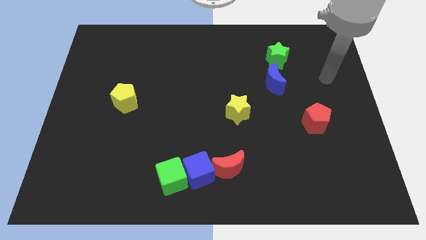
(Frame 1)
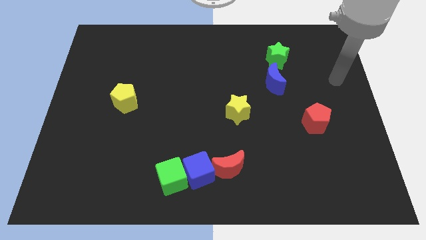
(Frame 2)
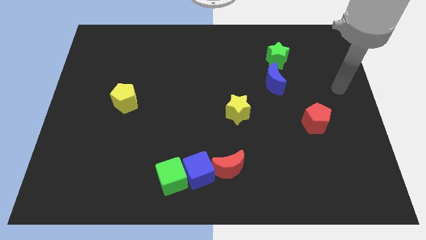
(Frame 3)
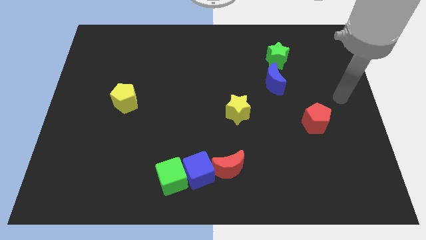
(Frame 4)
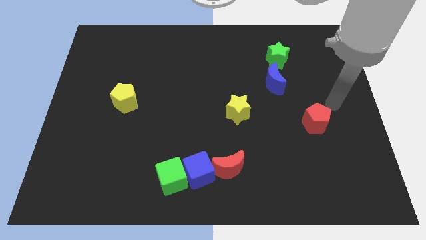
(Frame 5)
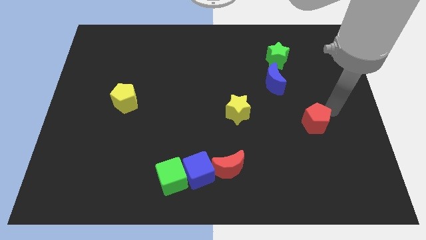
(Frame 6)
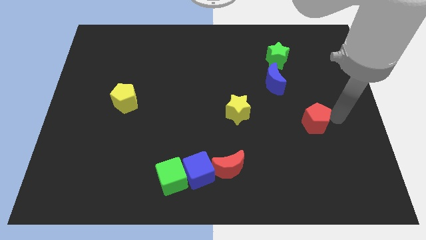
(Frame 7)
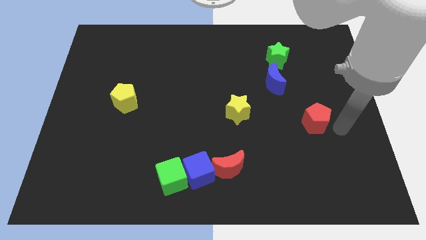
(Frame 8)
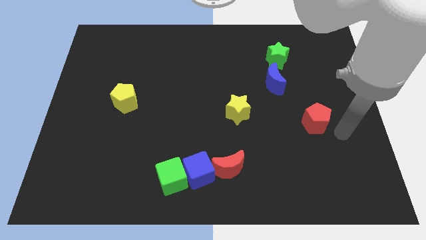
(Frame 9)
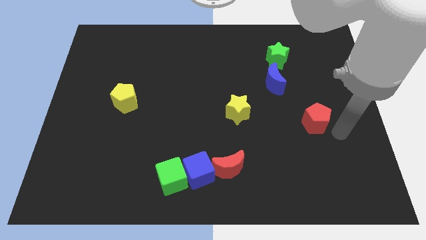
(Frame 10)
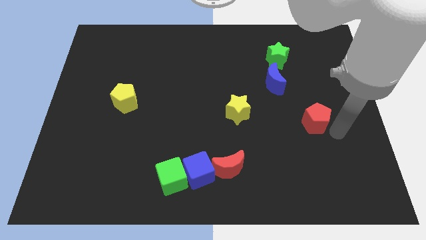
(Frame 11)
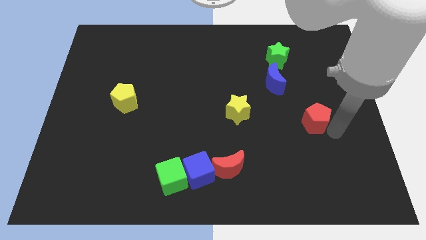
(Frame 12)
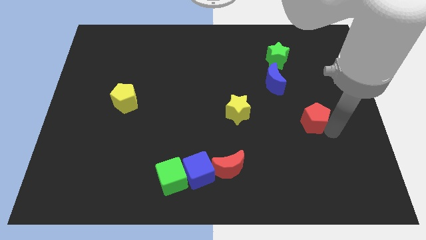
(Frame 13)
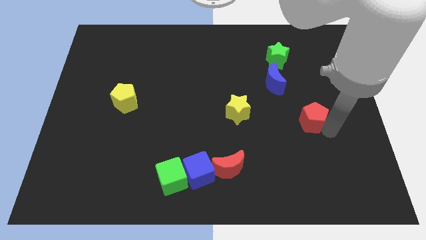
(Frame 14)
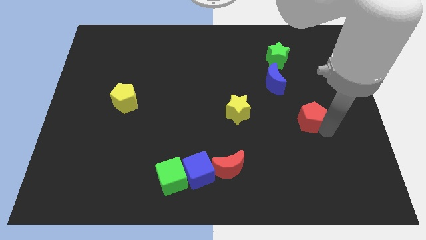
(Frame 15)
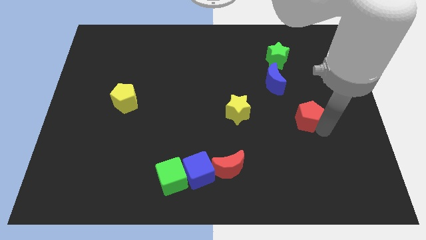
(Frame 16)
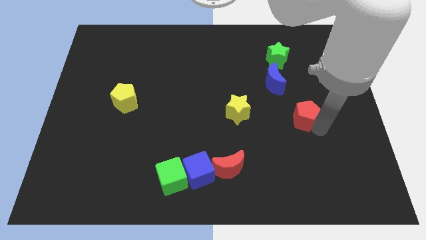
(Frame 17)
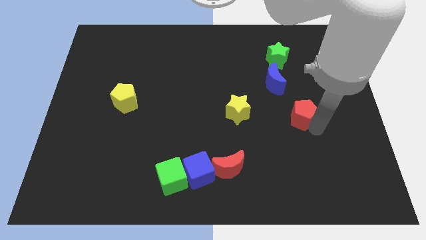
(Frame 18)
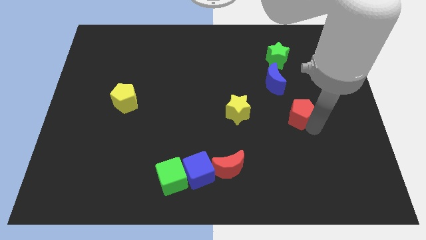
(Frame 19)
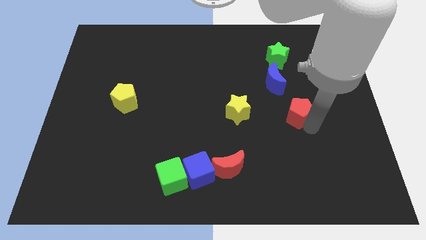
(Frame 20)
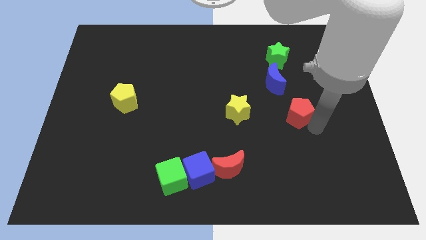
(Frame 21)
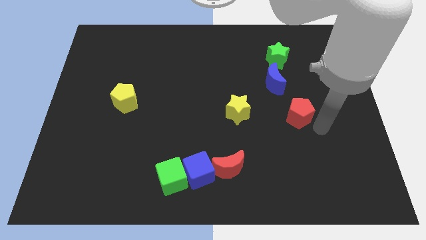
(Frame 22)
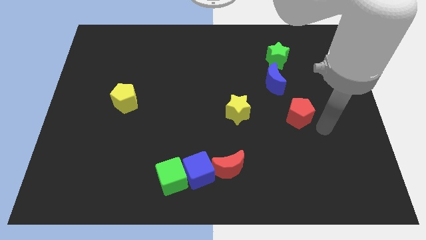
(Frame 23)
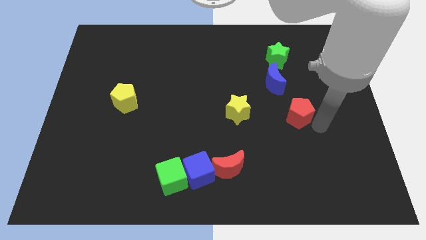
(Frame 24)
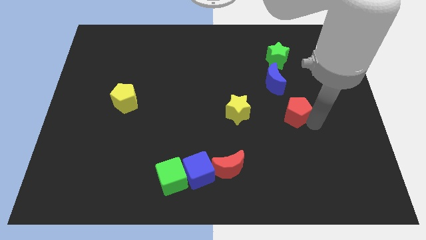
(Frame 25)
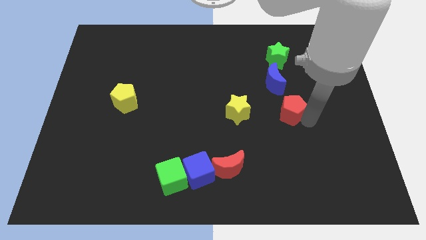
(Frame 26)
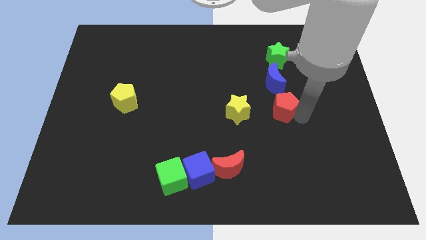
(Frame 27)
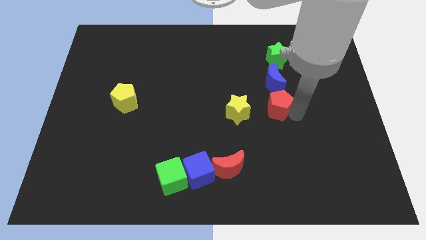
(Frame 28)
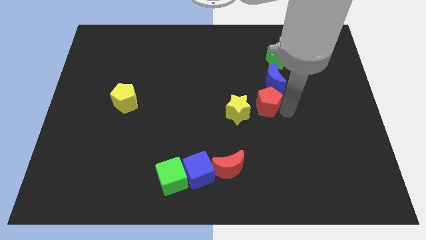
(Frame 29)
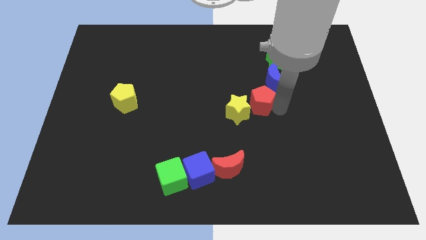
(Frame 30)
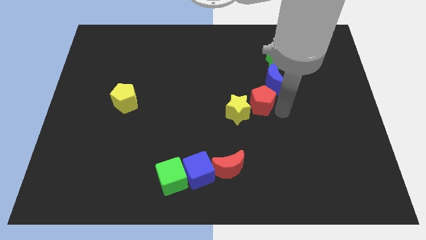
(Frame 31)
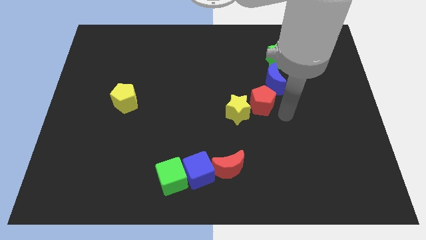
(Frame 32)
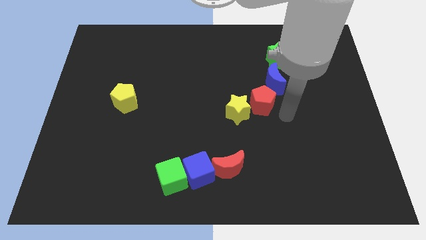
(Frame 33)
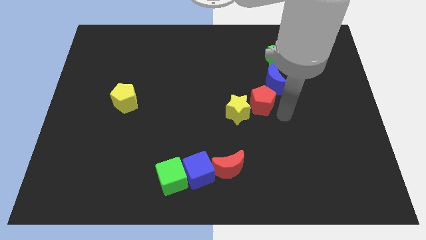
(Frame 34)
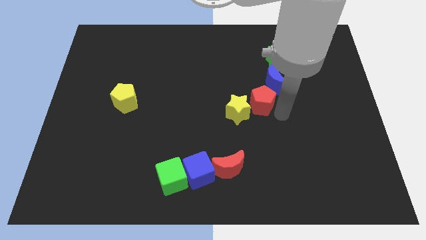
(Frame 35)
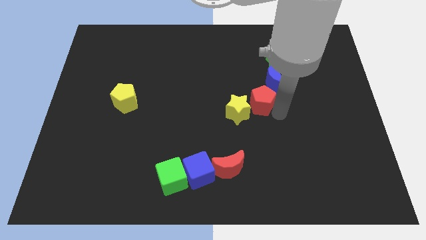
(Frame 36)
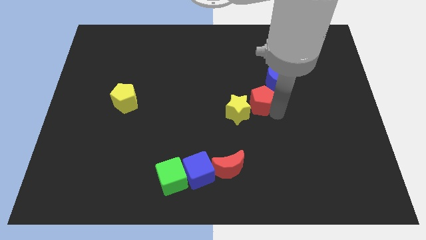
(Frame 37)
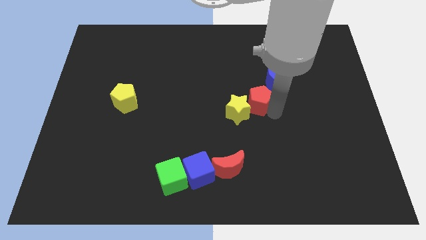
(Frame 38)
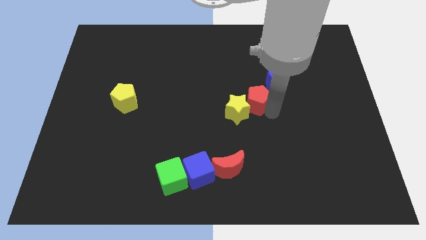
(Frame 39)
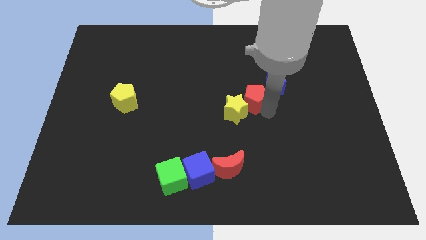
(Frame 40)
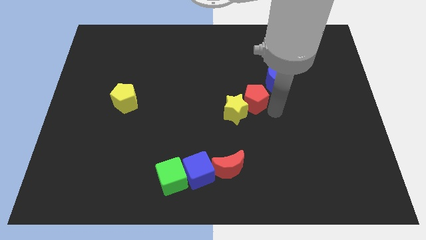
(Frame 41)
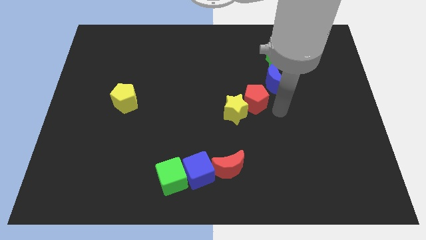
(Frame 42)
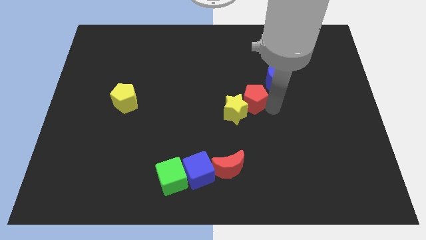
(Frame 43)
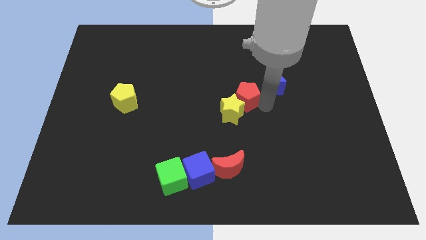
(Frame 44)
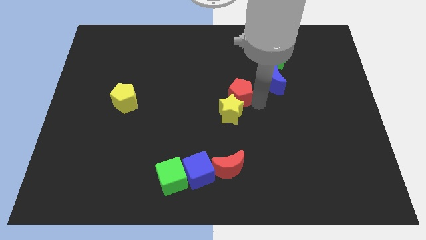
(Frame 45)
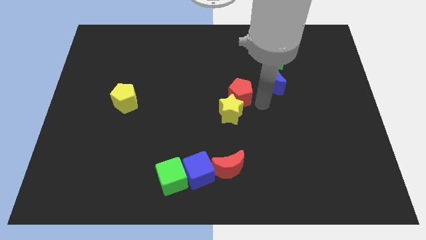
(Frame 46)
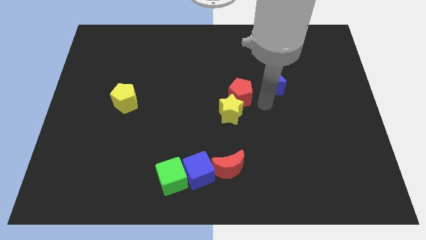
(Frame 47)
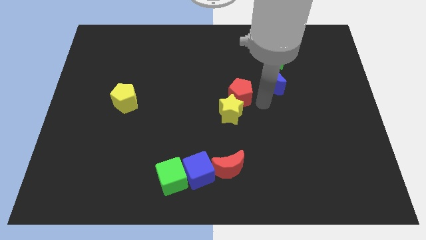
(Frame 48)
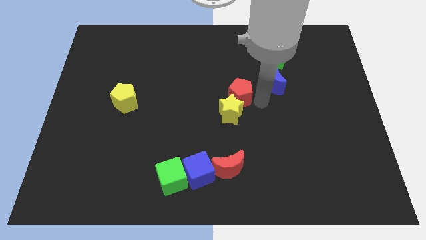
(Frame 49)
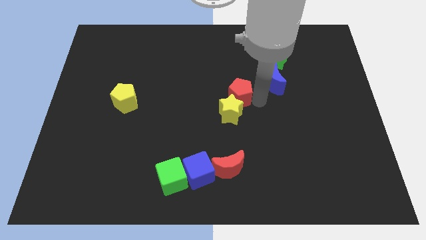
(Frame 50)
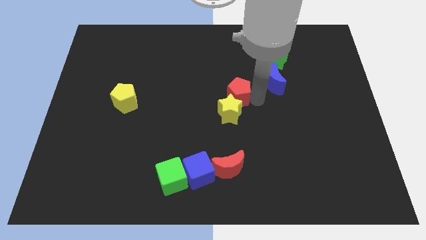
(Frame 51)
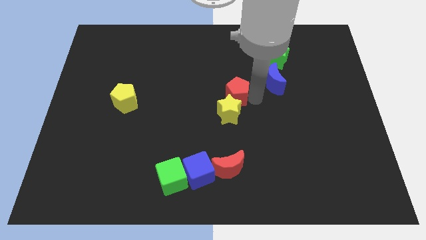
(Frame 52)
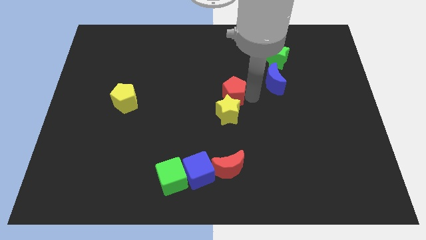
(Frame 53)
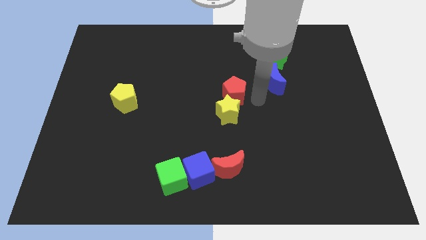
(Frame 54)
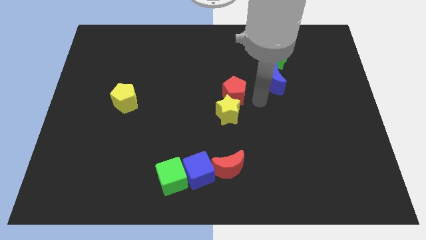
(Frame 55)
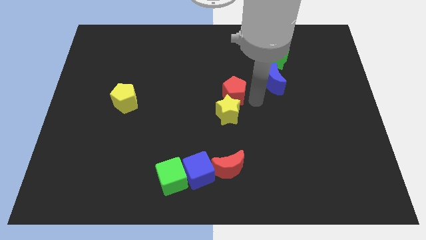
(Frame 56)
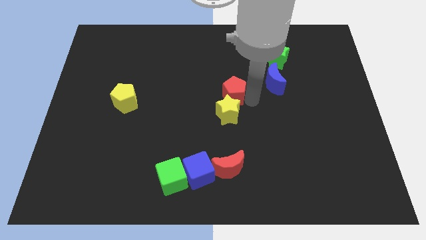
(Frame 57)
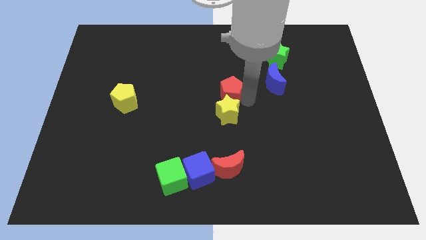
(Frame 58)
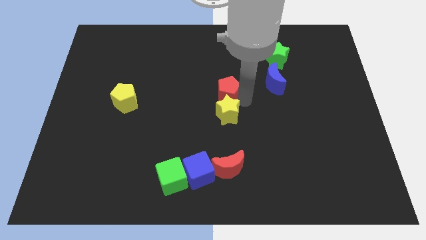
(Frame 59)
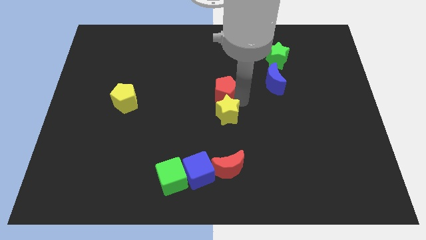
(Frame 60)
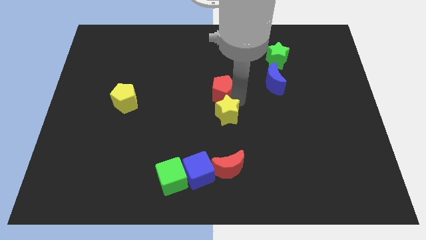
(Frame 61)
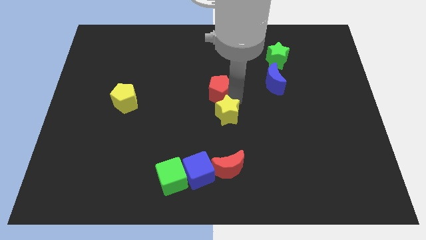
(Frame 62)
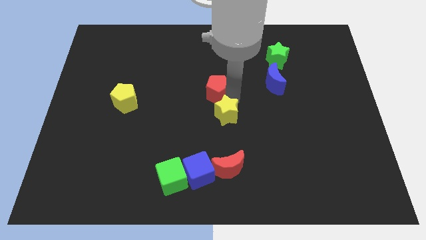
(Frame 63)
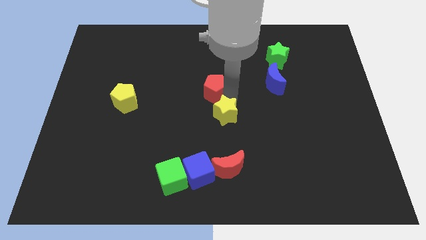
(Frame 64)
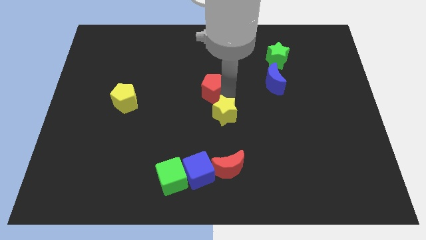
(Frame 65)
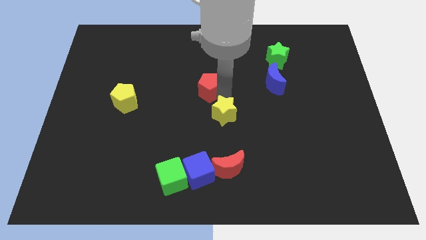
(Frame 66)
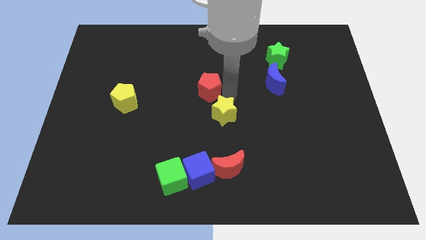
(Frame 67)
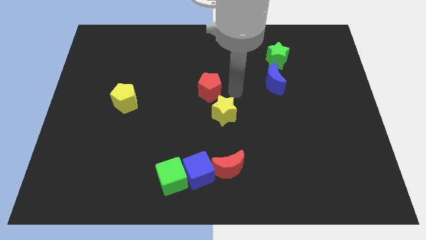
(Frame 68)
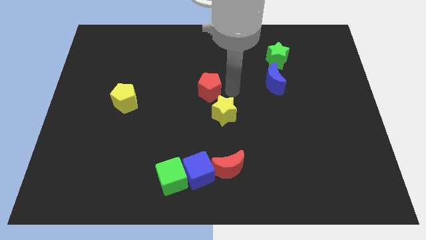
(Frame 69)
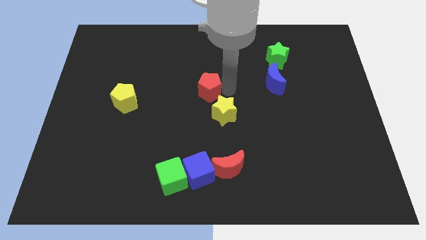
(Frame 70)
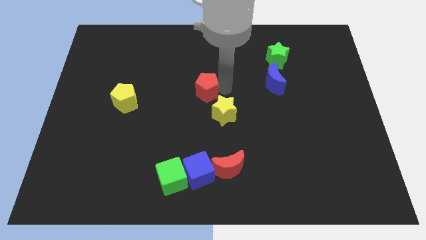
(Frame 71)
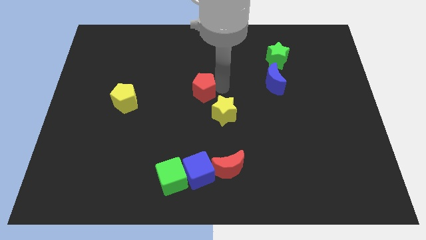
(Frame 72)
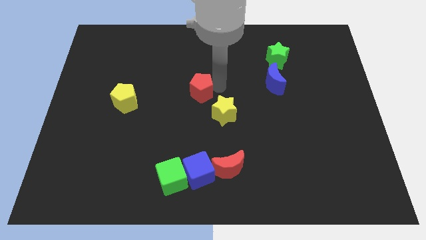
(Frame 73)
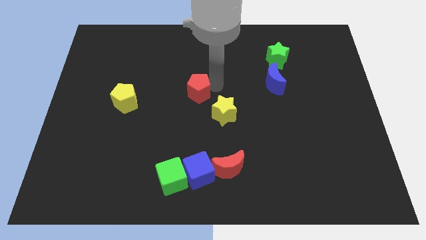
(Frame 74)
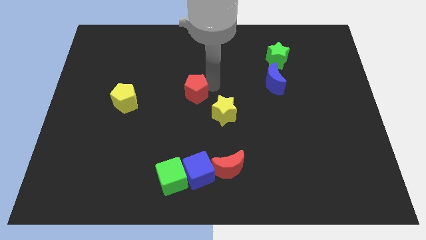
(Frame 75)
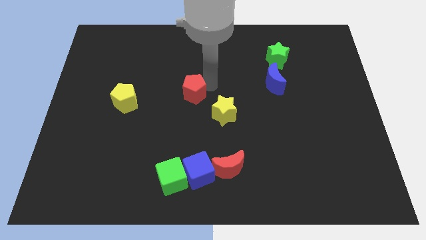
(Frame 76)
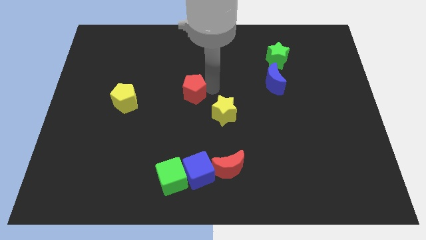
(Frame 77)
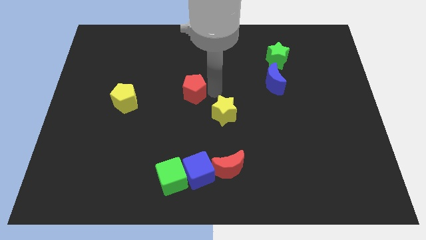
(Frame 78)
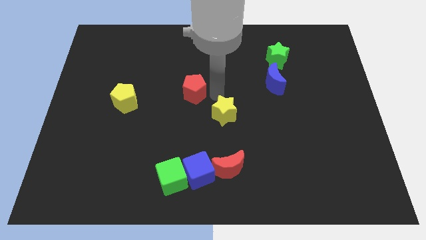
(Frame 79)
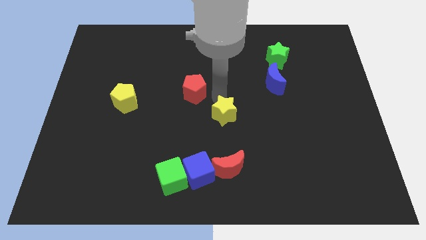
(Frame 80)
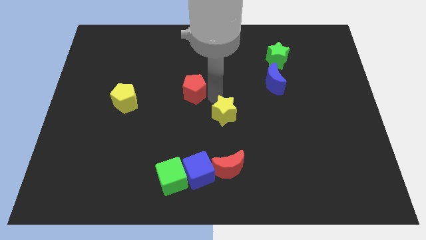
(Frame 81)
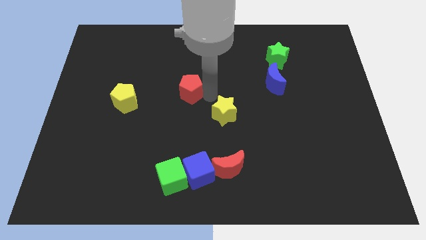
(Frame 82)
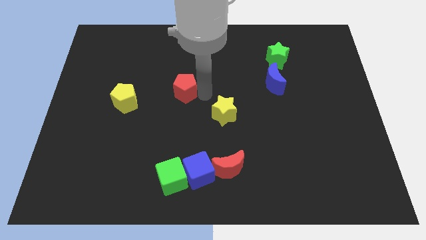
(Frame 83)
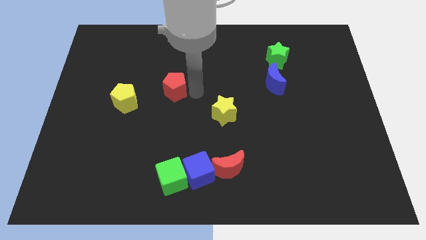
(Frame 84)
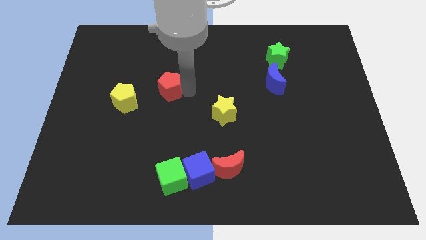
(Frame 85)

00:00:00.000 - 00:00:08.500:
slide the red pentagon to the top right of the yellow pentagon
